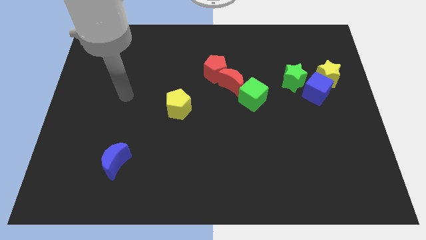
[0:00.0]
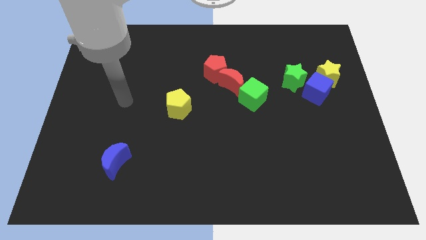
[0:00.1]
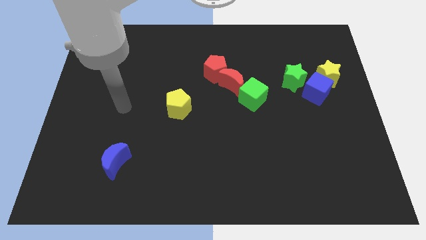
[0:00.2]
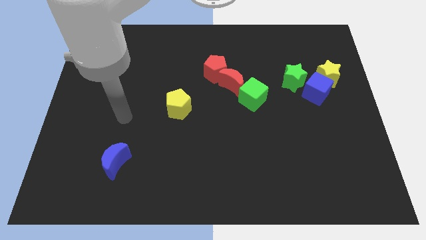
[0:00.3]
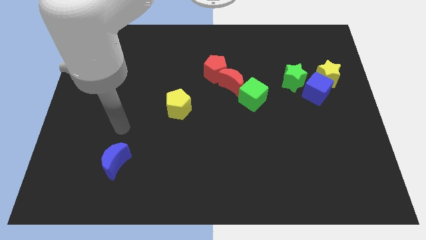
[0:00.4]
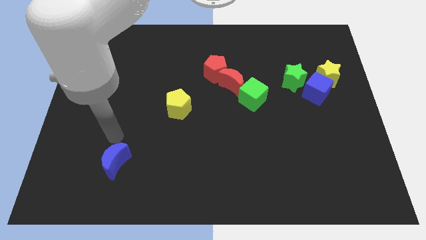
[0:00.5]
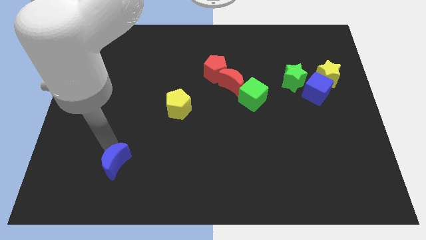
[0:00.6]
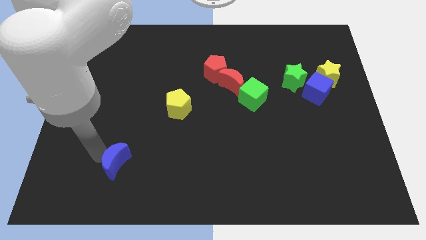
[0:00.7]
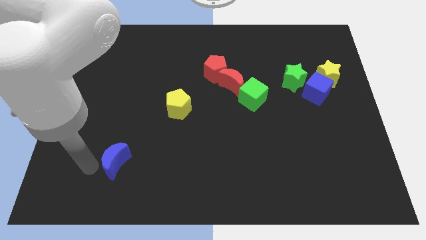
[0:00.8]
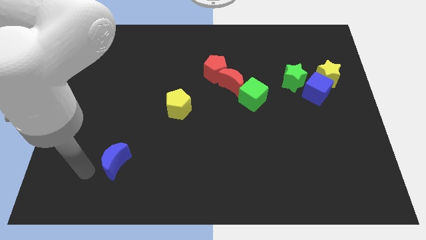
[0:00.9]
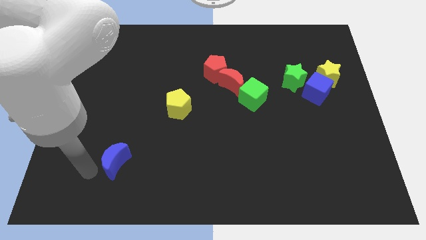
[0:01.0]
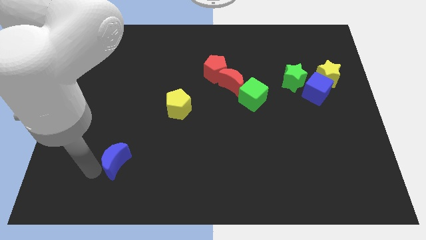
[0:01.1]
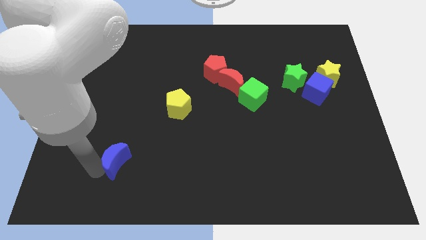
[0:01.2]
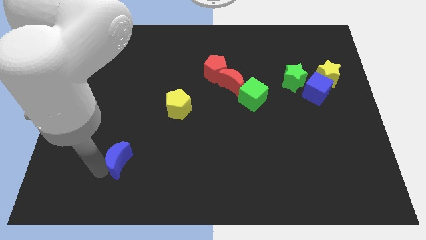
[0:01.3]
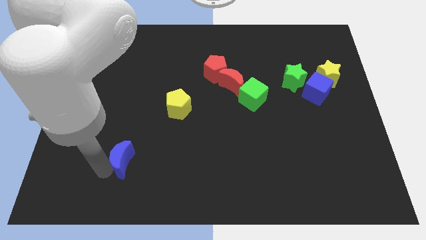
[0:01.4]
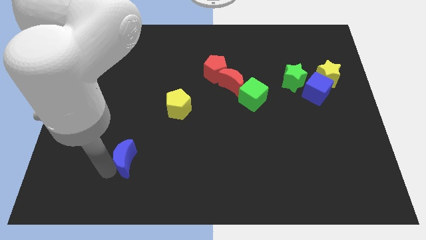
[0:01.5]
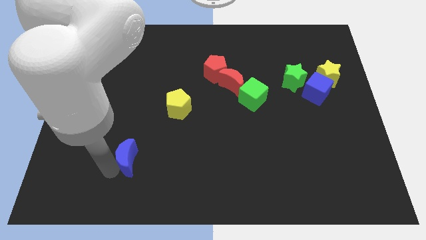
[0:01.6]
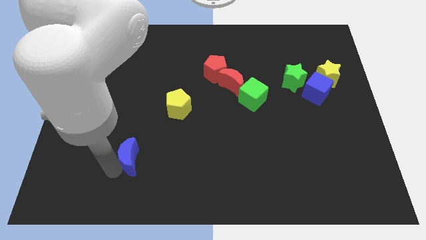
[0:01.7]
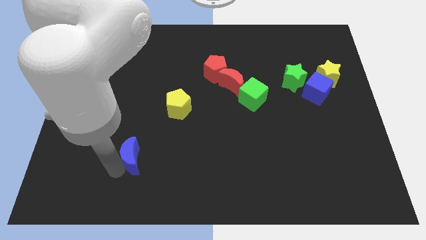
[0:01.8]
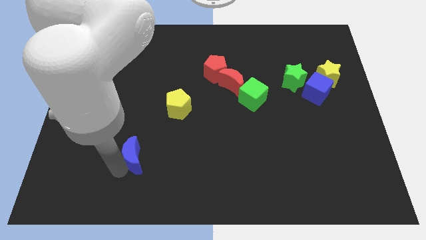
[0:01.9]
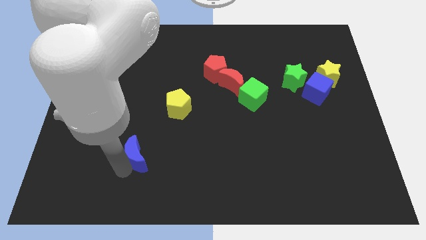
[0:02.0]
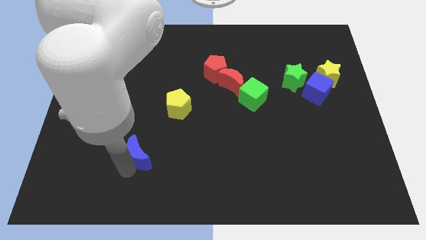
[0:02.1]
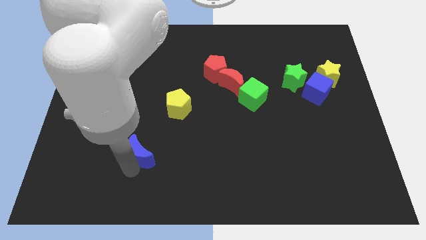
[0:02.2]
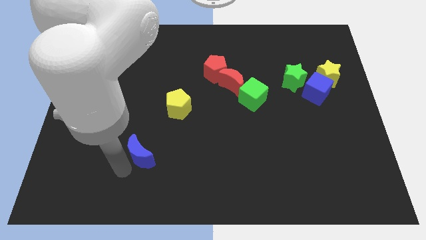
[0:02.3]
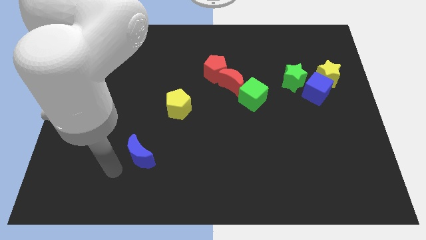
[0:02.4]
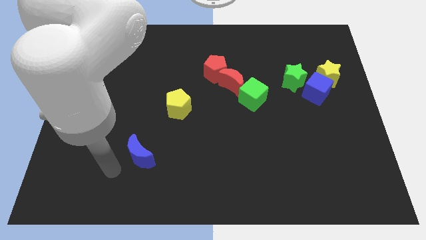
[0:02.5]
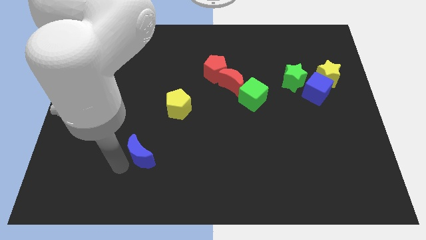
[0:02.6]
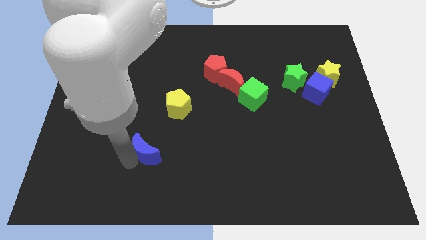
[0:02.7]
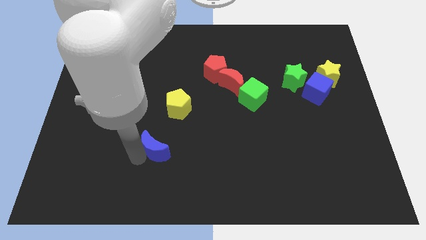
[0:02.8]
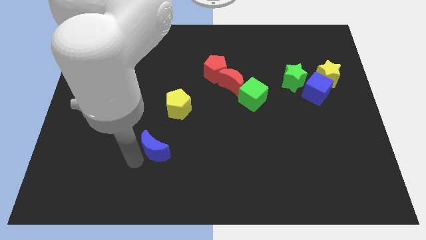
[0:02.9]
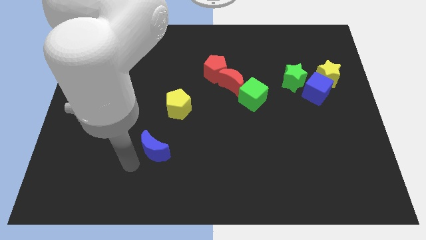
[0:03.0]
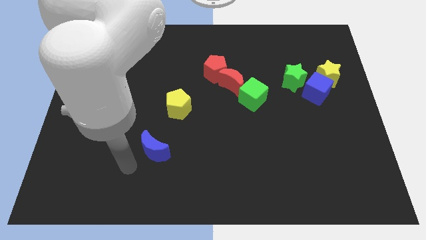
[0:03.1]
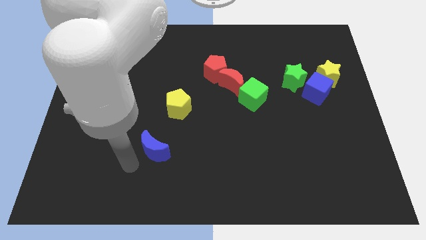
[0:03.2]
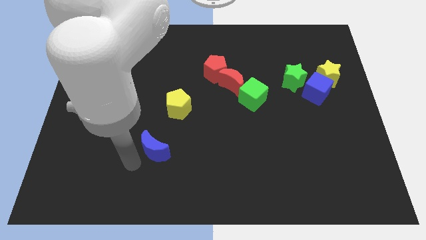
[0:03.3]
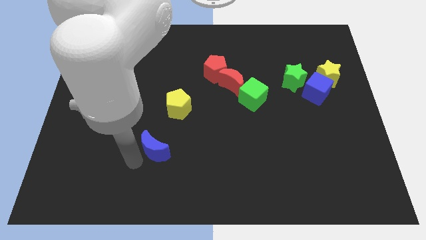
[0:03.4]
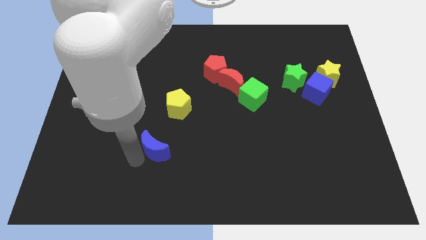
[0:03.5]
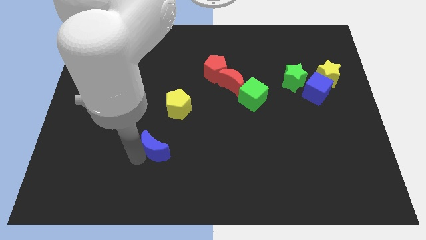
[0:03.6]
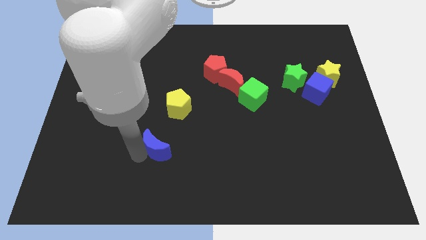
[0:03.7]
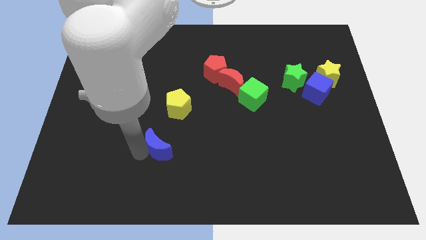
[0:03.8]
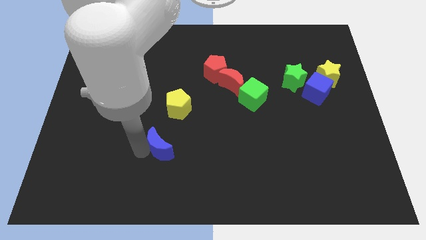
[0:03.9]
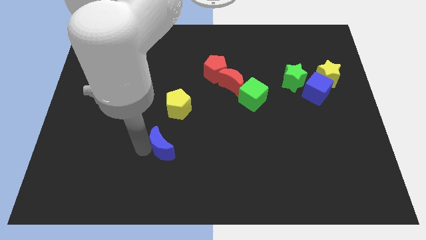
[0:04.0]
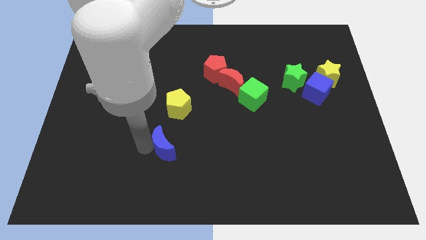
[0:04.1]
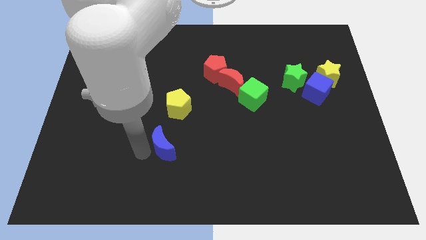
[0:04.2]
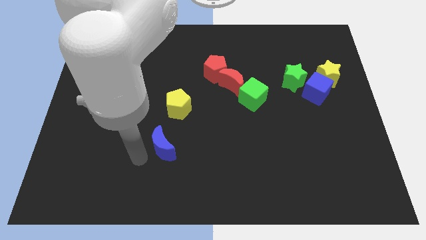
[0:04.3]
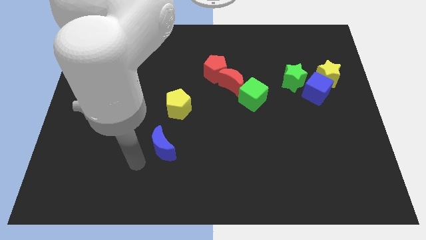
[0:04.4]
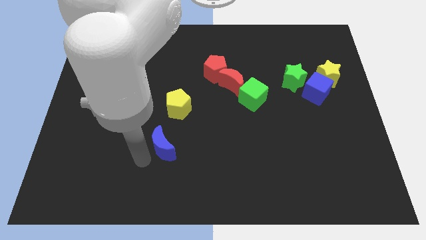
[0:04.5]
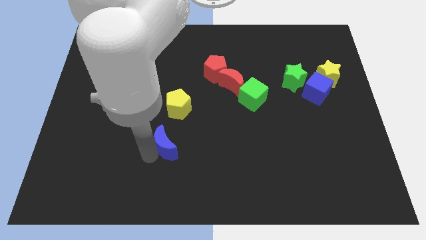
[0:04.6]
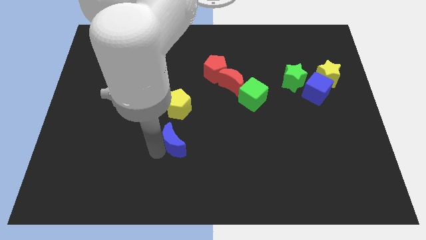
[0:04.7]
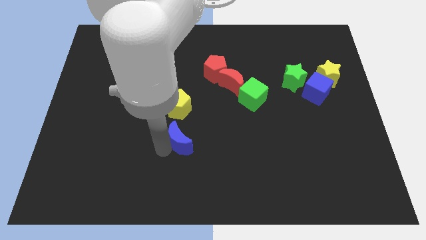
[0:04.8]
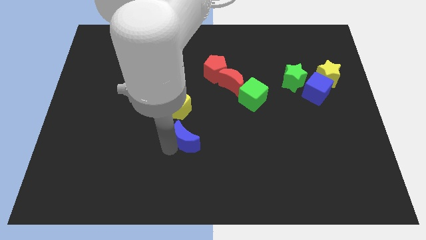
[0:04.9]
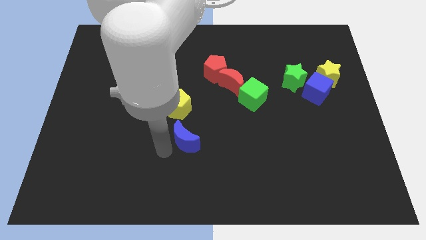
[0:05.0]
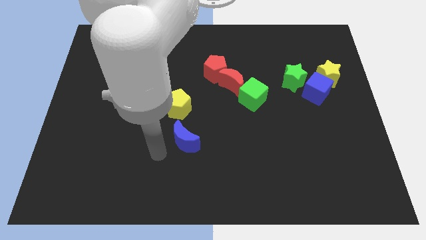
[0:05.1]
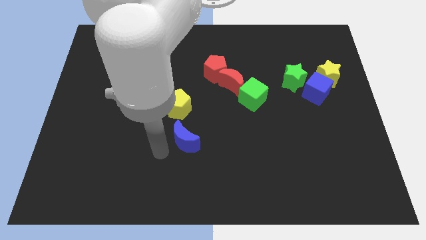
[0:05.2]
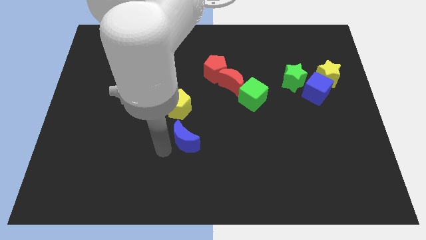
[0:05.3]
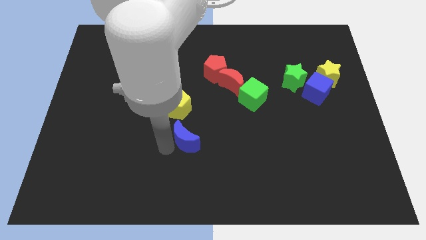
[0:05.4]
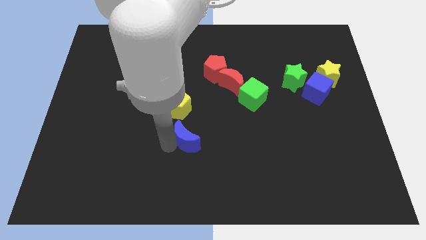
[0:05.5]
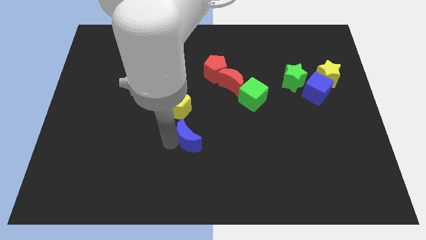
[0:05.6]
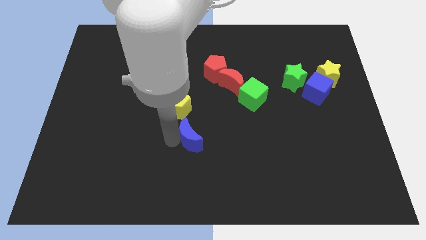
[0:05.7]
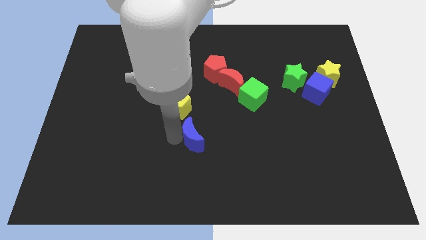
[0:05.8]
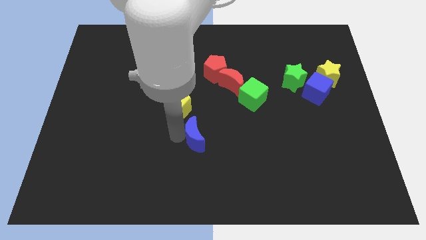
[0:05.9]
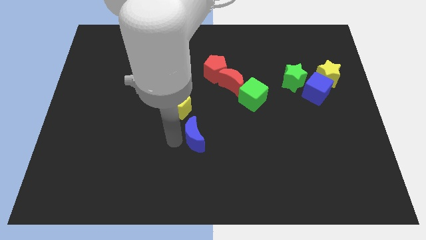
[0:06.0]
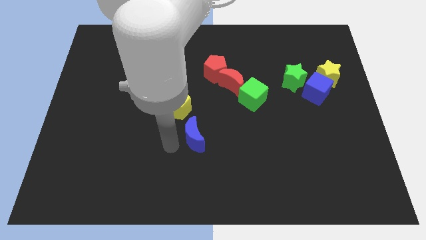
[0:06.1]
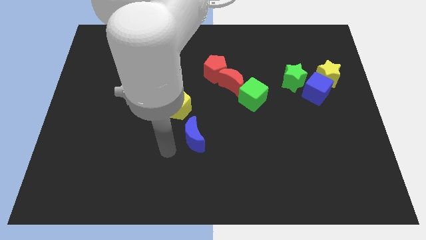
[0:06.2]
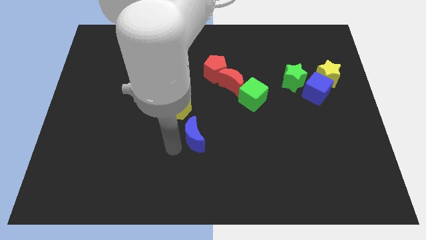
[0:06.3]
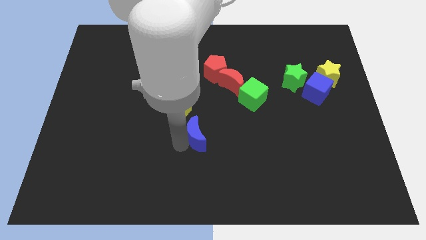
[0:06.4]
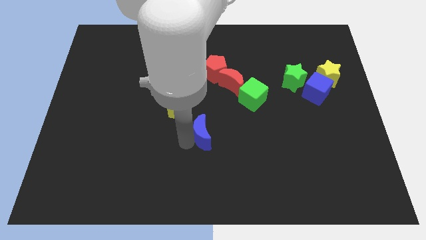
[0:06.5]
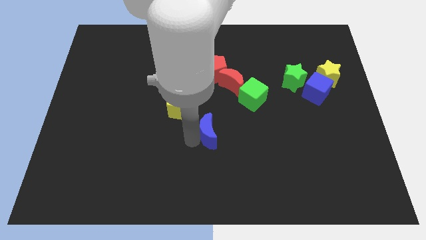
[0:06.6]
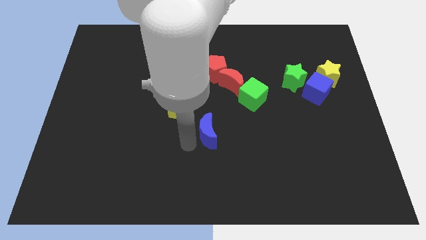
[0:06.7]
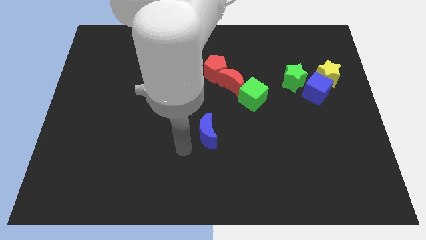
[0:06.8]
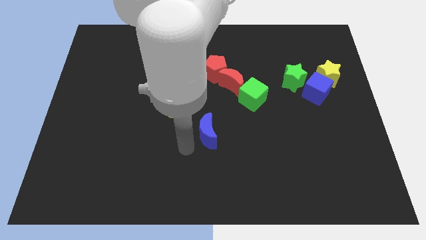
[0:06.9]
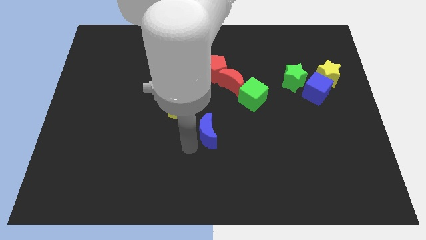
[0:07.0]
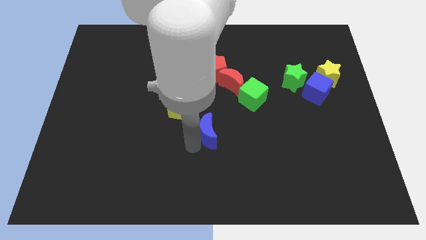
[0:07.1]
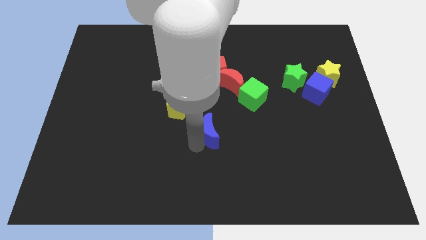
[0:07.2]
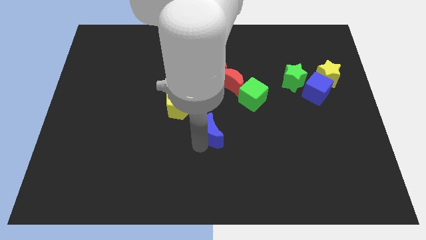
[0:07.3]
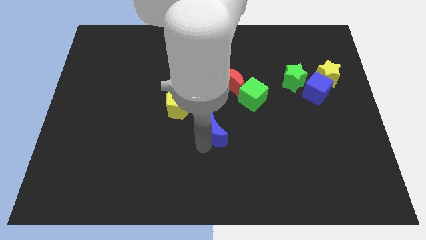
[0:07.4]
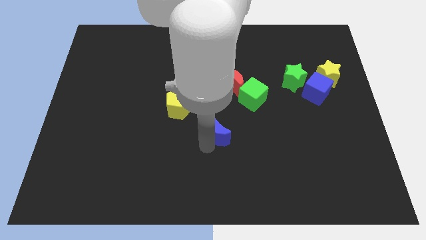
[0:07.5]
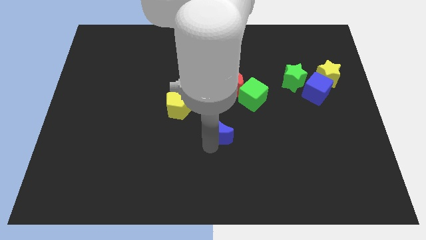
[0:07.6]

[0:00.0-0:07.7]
slide the blue moon to the bottom side of the red moon
